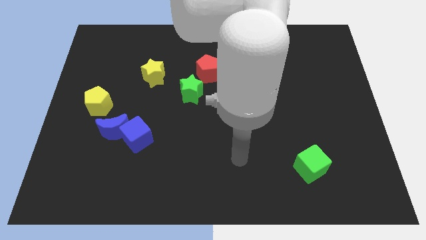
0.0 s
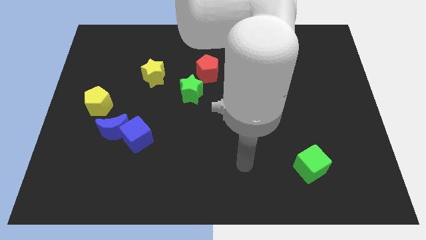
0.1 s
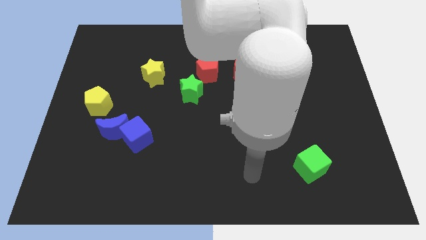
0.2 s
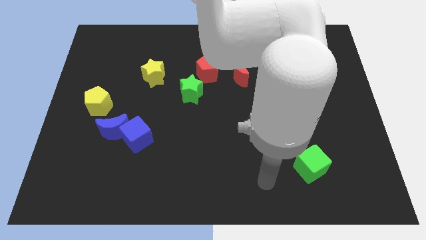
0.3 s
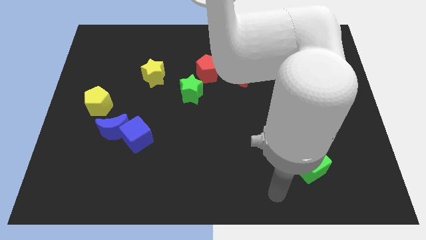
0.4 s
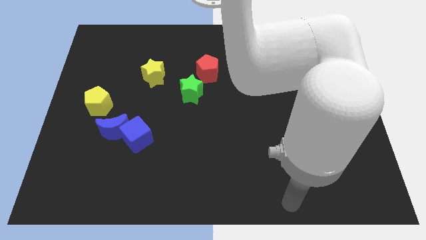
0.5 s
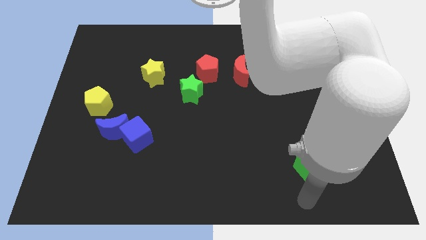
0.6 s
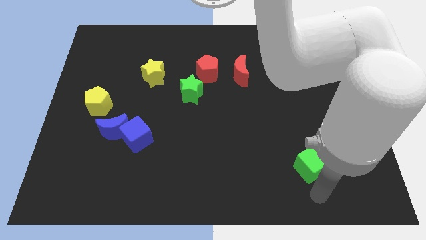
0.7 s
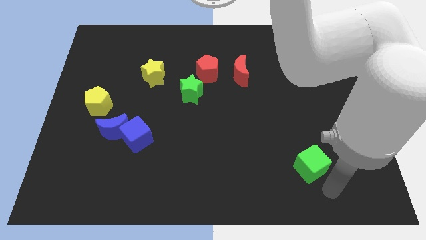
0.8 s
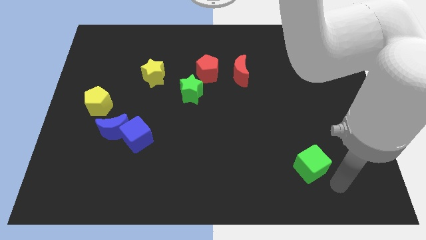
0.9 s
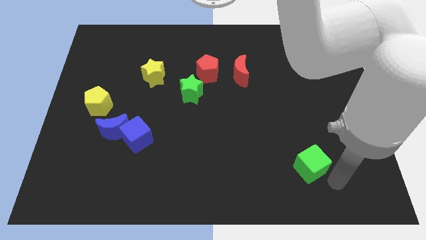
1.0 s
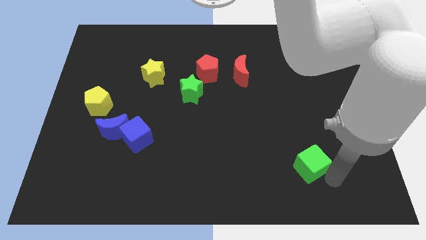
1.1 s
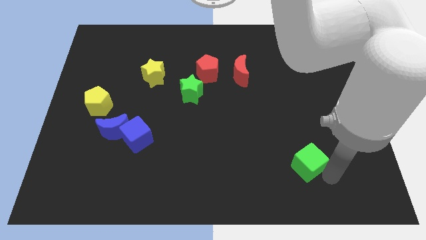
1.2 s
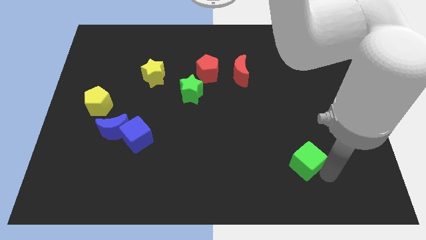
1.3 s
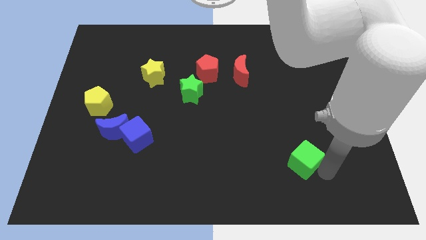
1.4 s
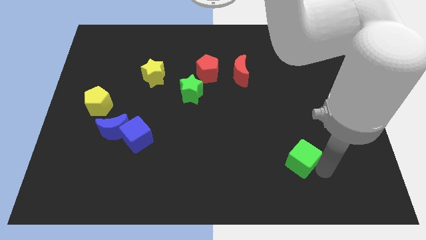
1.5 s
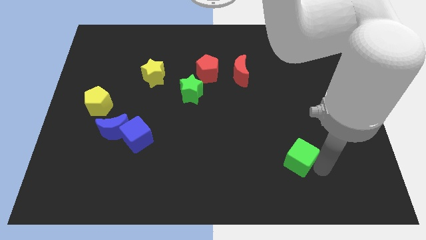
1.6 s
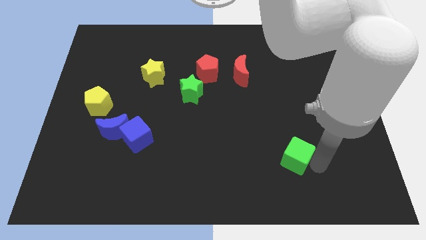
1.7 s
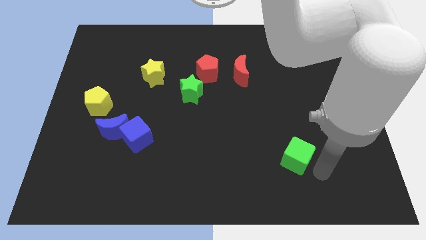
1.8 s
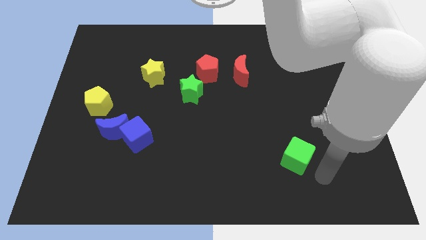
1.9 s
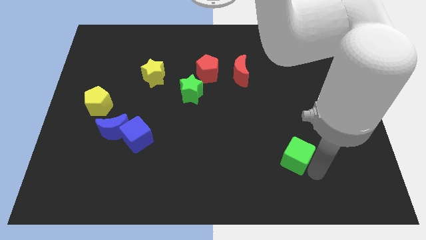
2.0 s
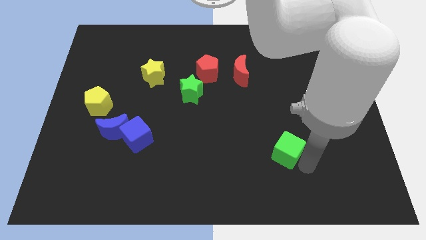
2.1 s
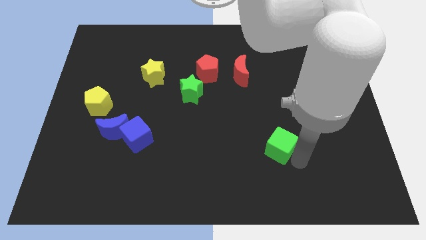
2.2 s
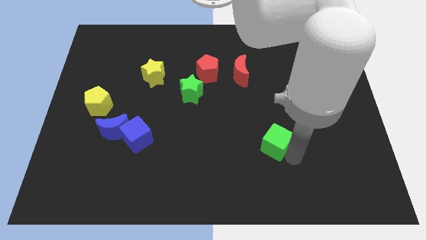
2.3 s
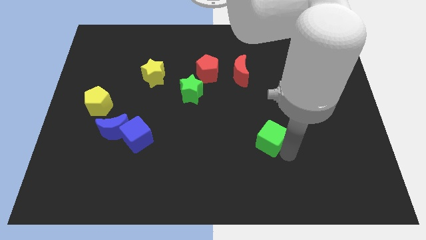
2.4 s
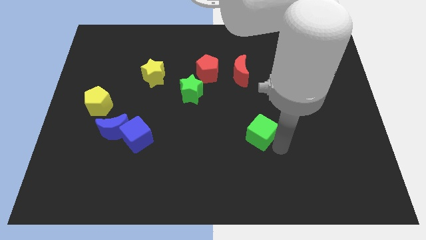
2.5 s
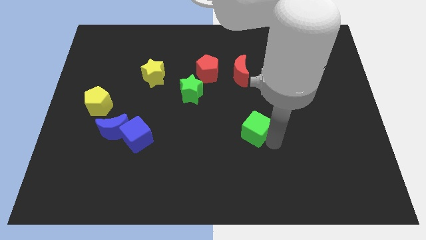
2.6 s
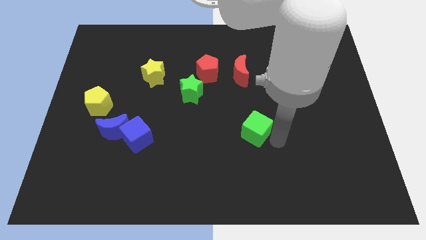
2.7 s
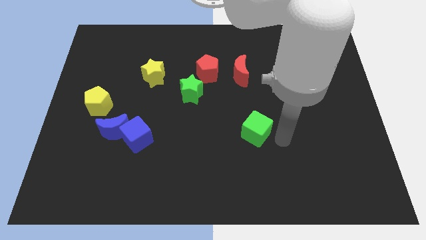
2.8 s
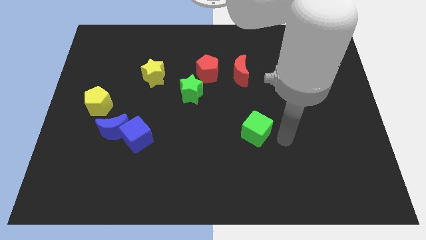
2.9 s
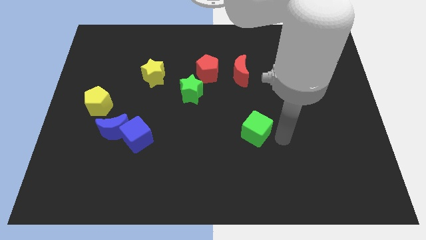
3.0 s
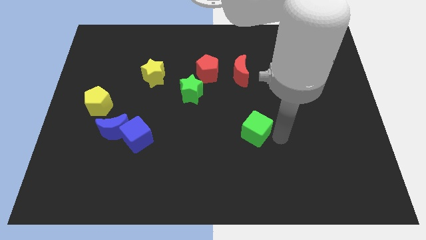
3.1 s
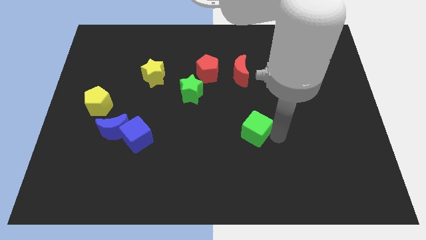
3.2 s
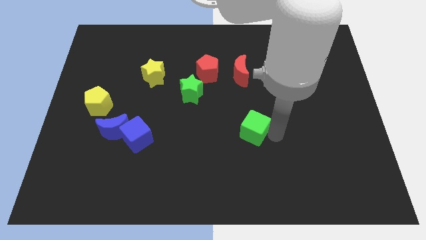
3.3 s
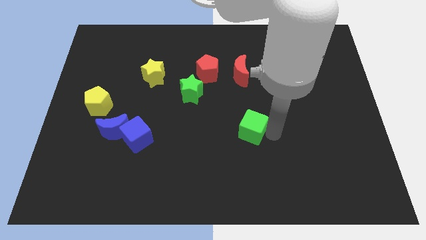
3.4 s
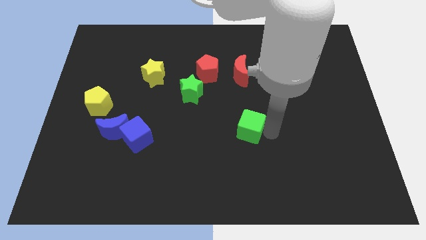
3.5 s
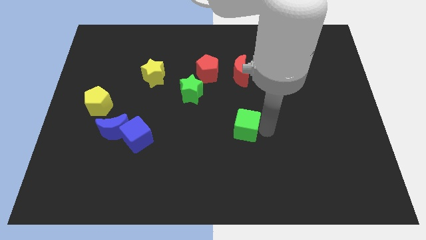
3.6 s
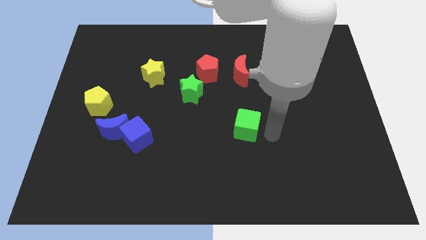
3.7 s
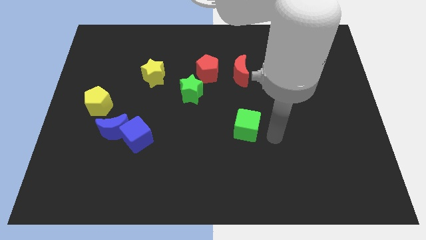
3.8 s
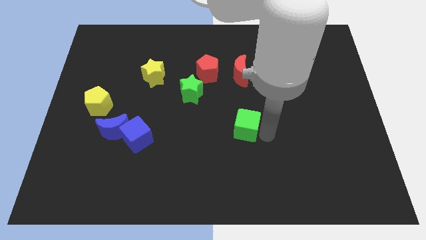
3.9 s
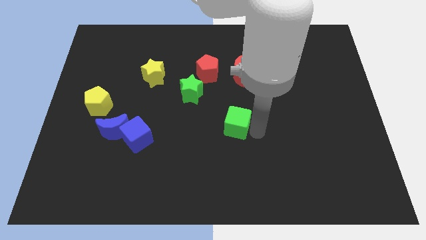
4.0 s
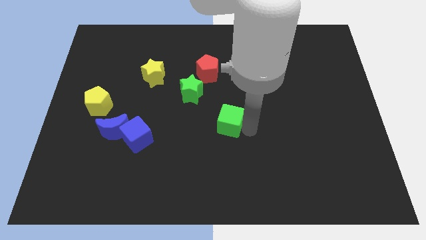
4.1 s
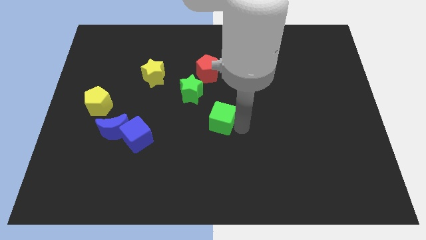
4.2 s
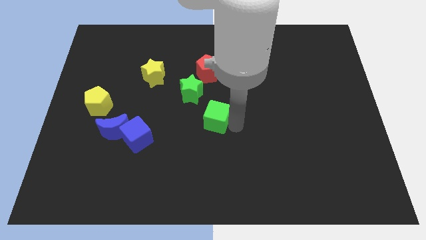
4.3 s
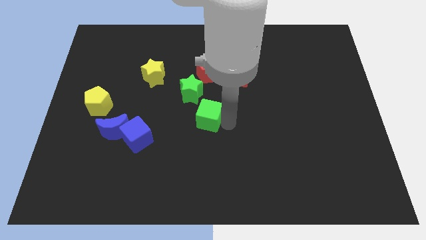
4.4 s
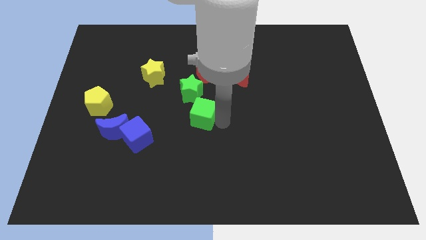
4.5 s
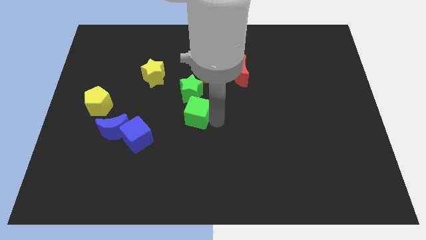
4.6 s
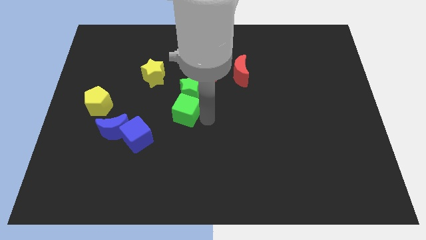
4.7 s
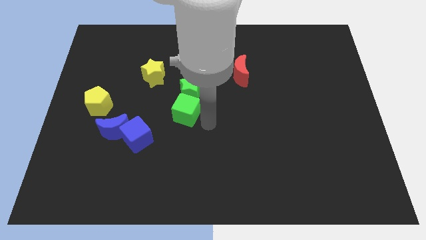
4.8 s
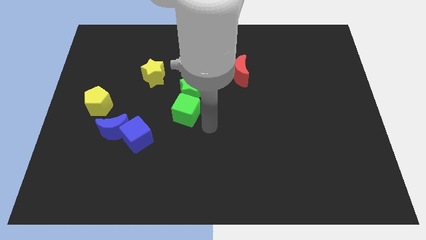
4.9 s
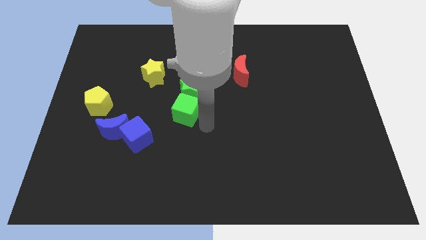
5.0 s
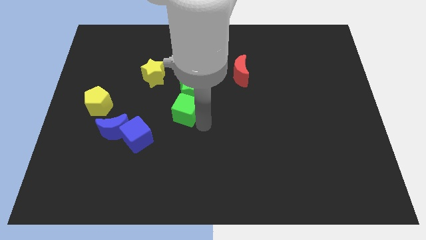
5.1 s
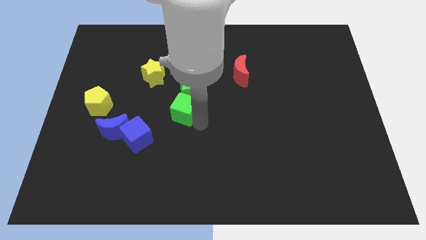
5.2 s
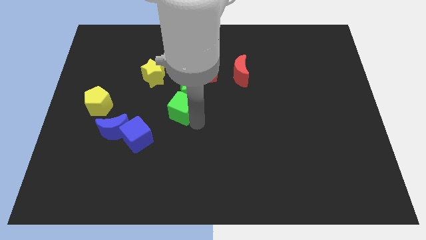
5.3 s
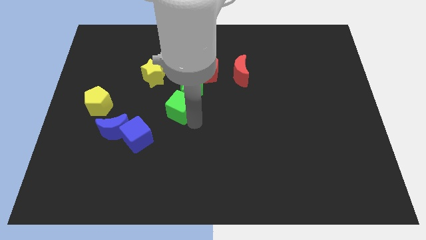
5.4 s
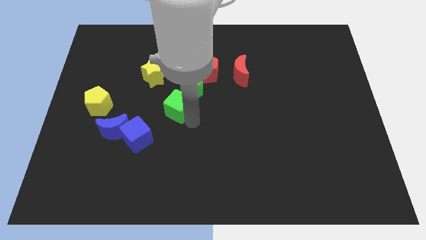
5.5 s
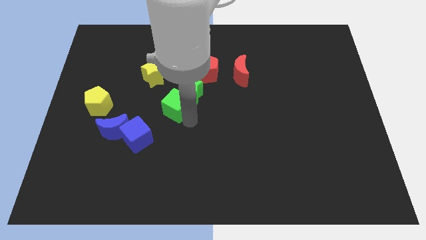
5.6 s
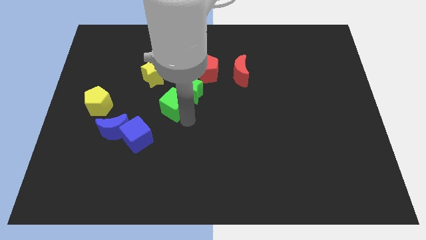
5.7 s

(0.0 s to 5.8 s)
push the green cube left of the green star

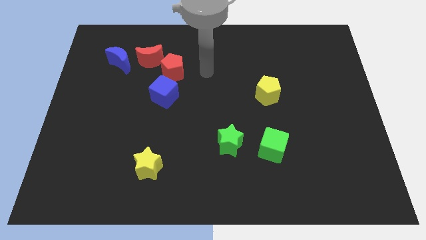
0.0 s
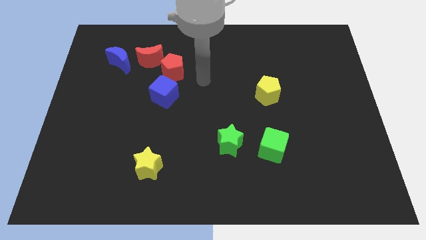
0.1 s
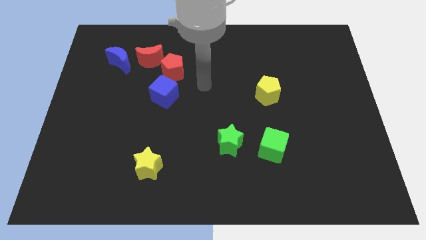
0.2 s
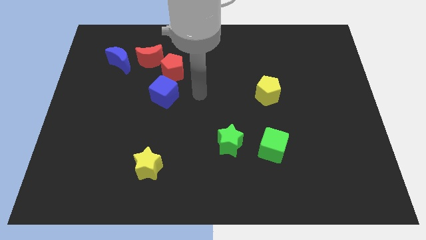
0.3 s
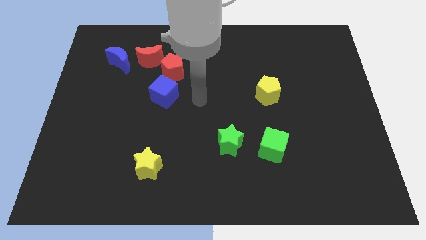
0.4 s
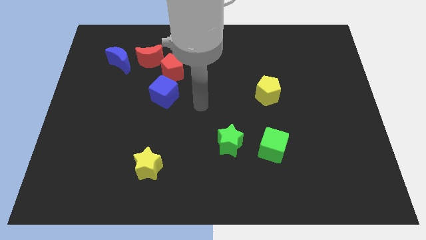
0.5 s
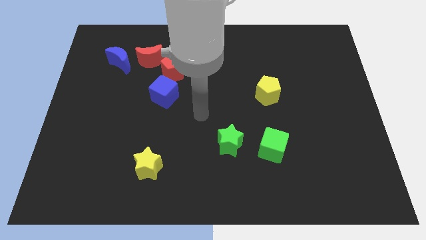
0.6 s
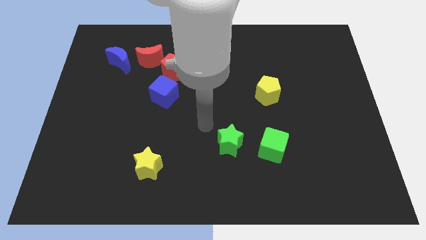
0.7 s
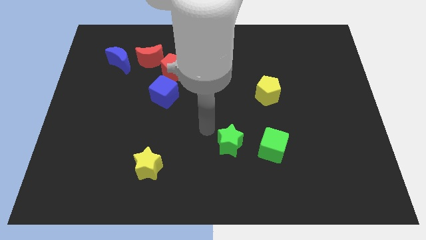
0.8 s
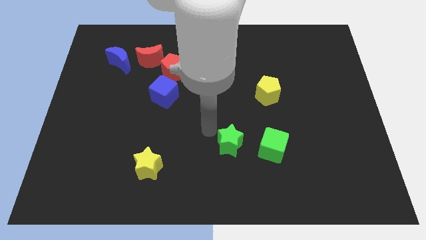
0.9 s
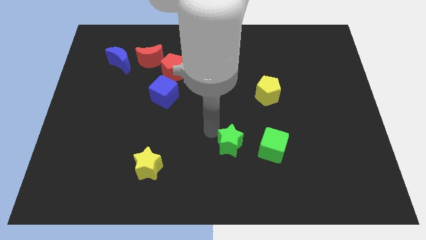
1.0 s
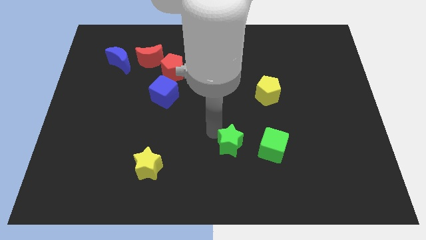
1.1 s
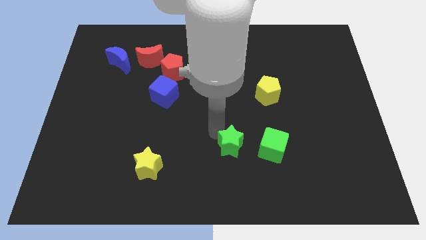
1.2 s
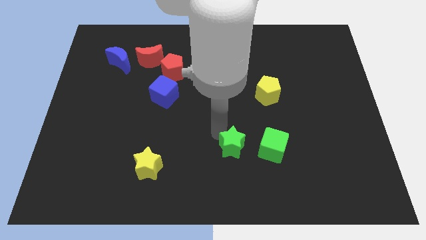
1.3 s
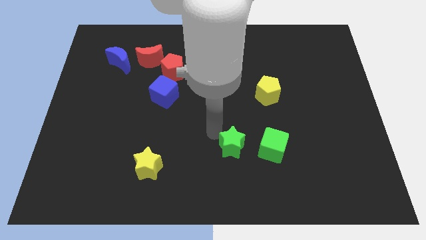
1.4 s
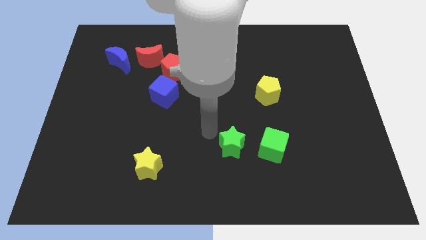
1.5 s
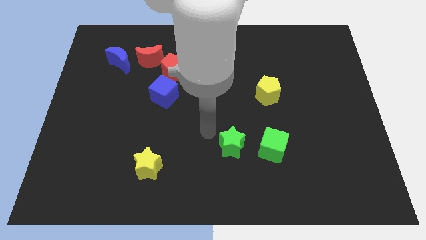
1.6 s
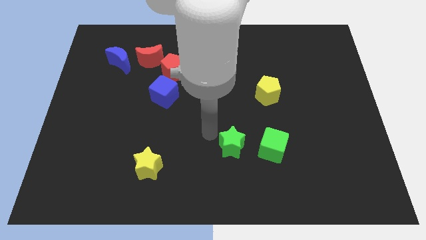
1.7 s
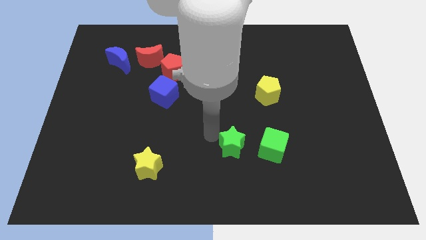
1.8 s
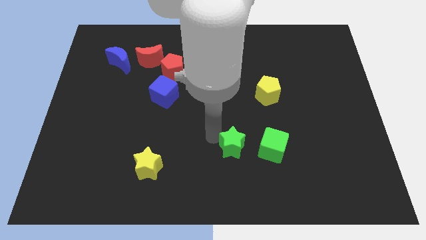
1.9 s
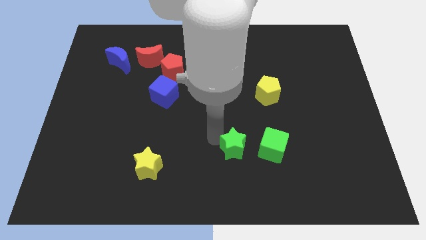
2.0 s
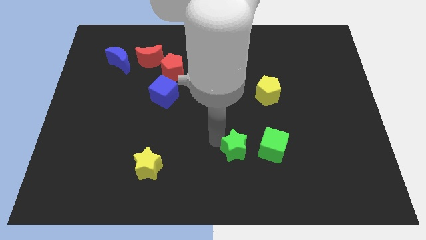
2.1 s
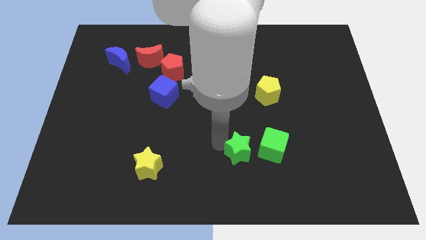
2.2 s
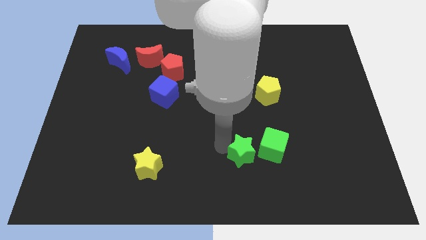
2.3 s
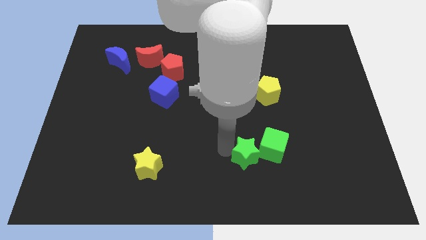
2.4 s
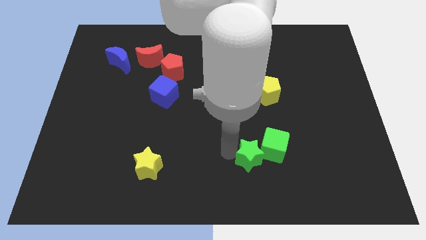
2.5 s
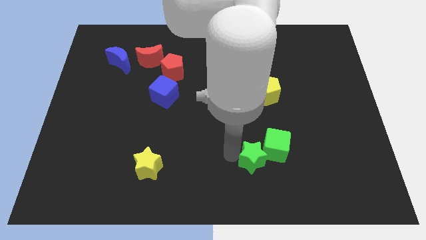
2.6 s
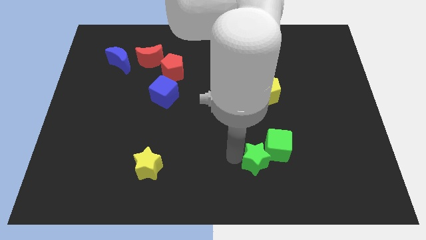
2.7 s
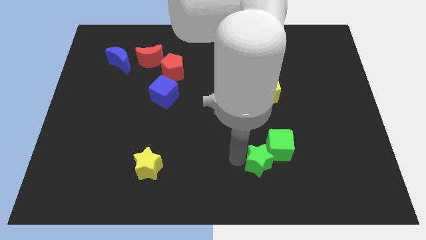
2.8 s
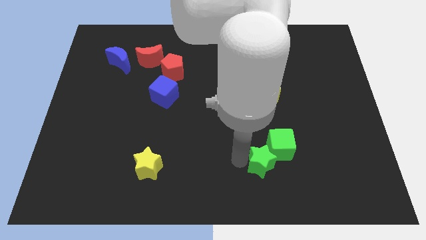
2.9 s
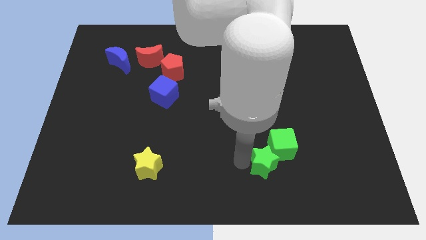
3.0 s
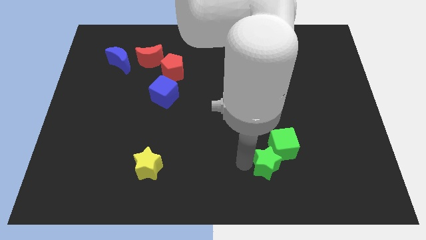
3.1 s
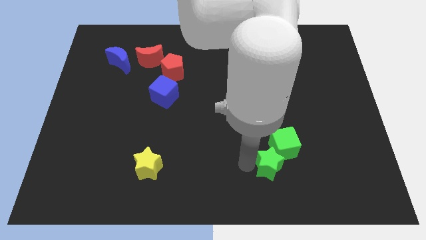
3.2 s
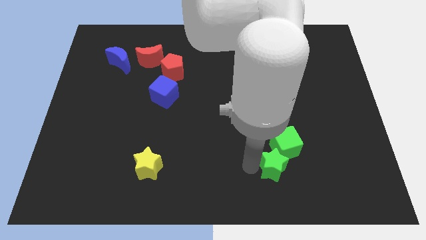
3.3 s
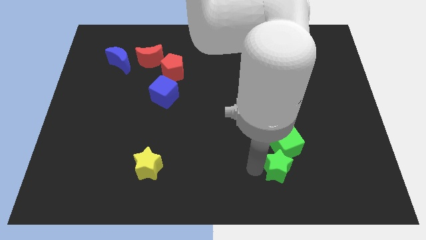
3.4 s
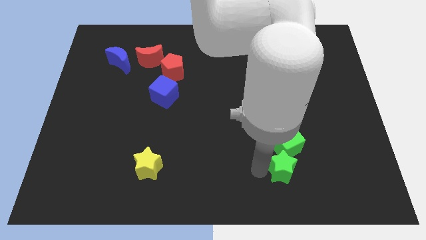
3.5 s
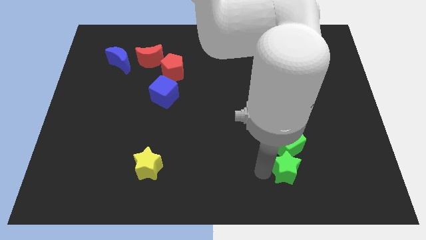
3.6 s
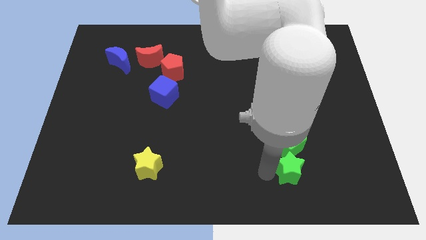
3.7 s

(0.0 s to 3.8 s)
slide the green star diagonally down and to the right of the green cube
